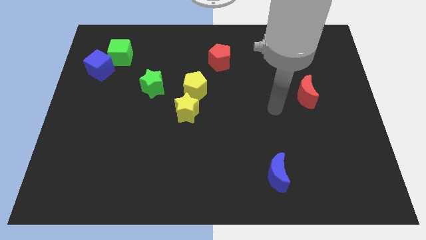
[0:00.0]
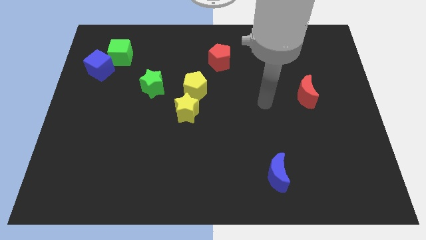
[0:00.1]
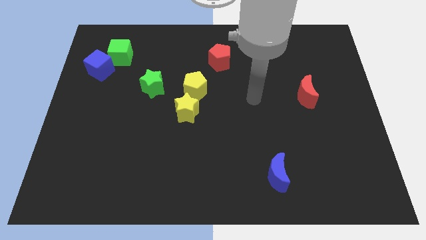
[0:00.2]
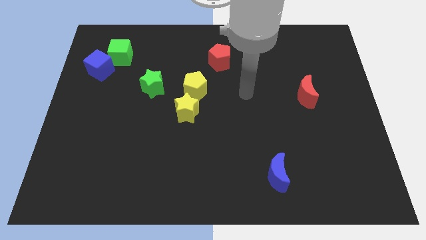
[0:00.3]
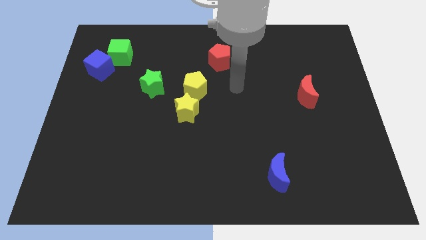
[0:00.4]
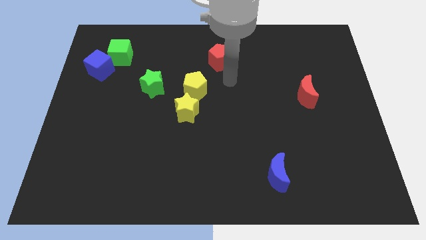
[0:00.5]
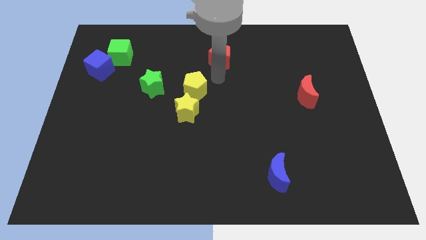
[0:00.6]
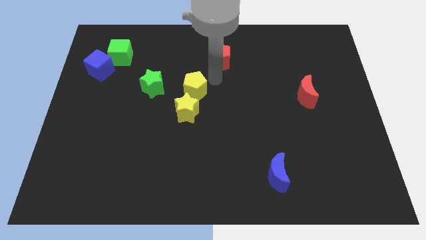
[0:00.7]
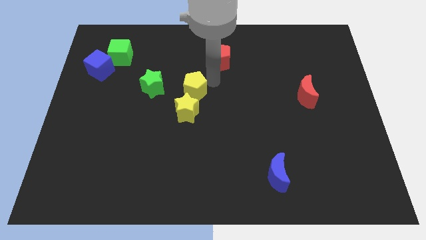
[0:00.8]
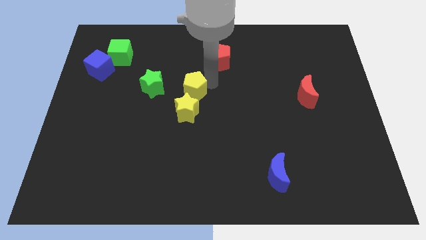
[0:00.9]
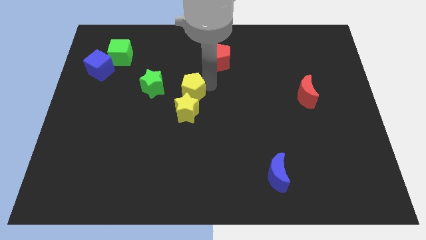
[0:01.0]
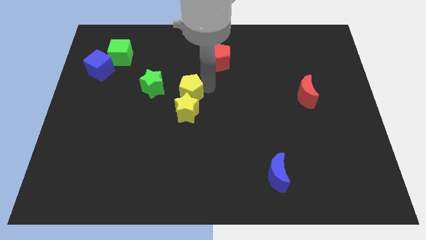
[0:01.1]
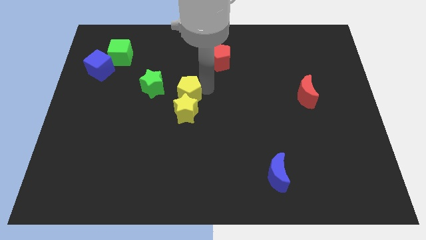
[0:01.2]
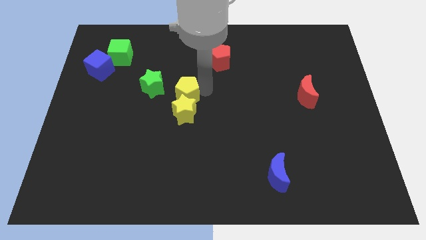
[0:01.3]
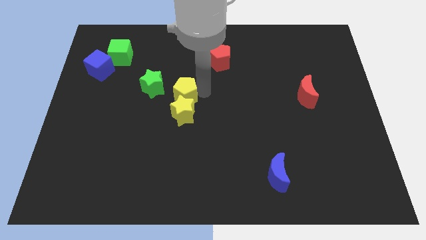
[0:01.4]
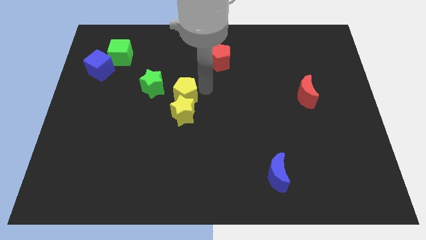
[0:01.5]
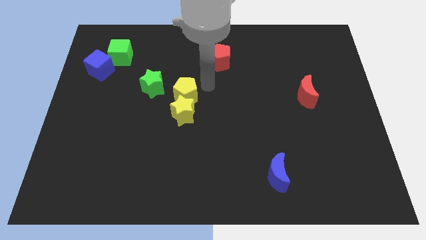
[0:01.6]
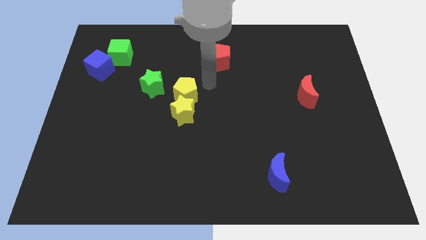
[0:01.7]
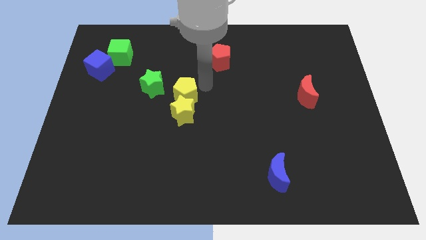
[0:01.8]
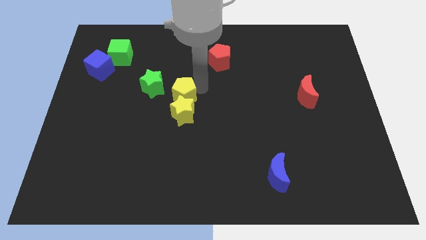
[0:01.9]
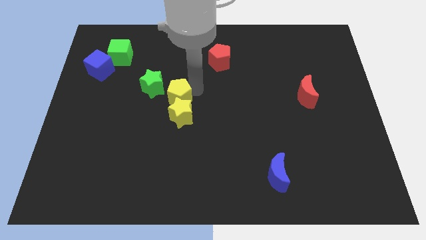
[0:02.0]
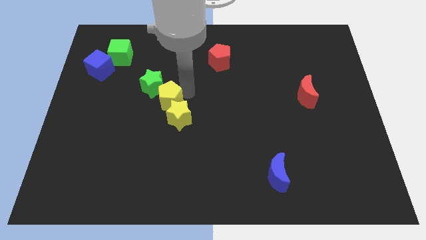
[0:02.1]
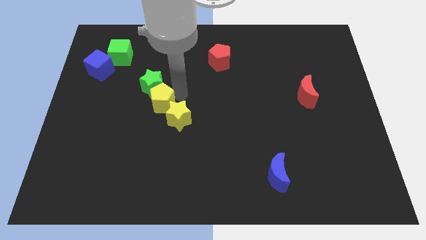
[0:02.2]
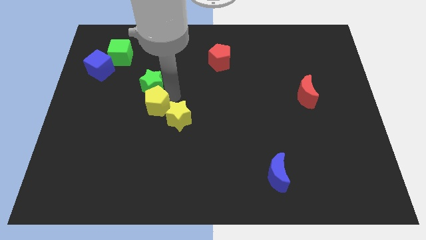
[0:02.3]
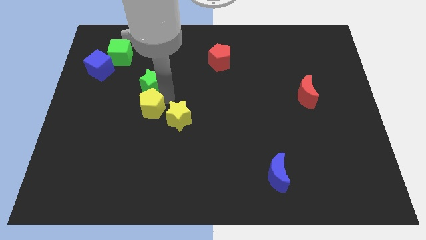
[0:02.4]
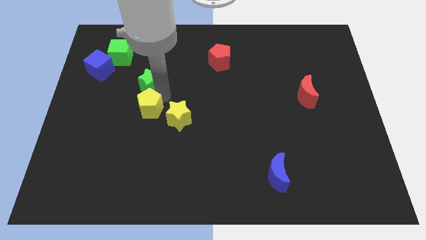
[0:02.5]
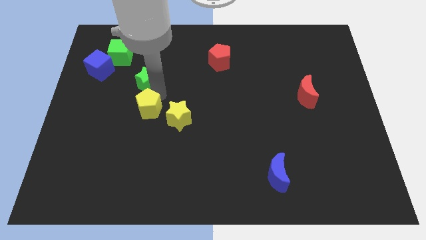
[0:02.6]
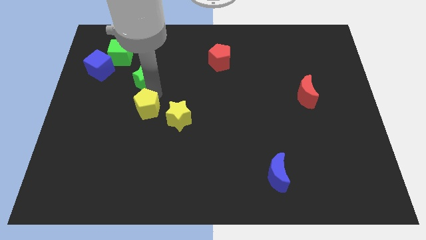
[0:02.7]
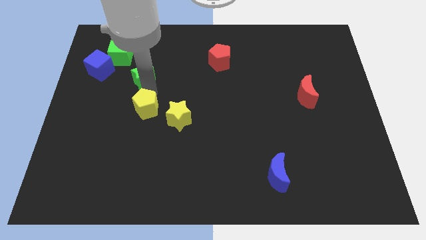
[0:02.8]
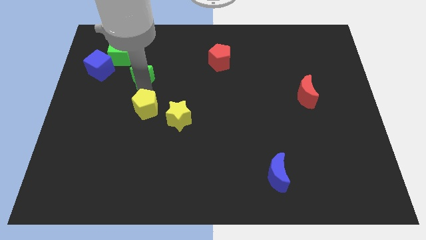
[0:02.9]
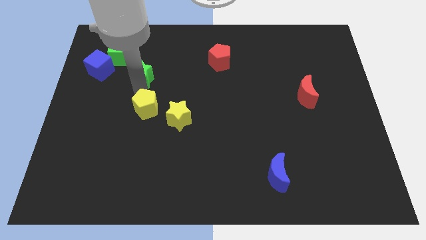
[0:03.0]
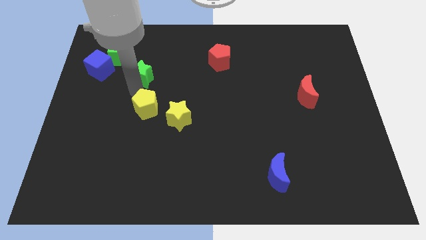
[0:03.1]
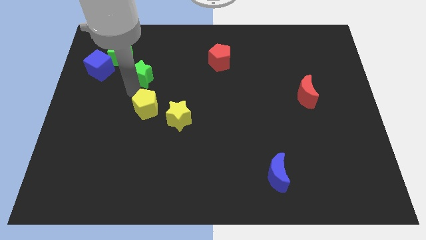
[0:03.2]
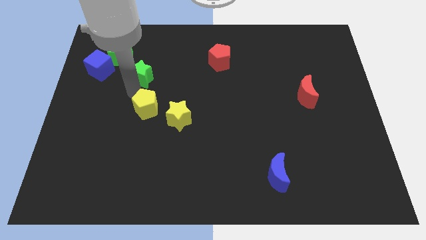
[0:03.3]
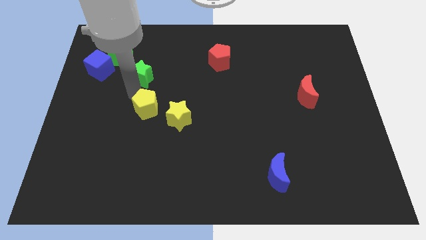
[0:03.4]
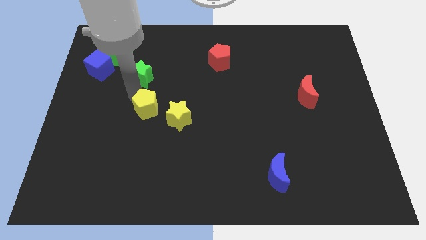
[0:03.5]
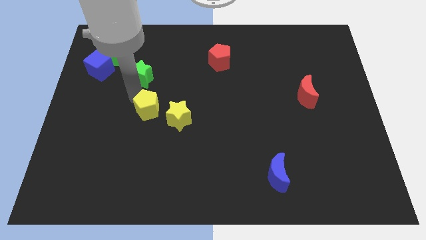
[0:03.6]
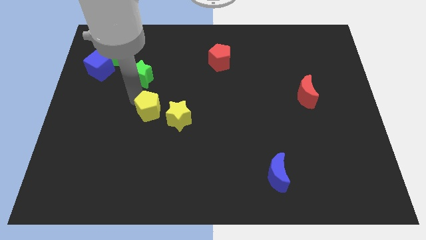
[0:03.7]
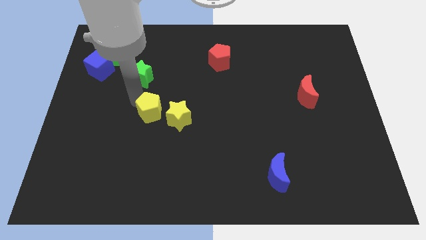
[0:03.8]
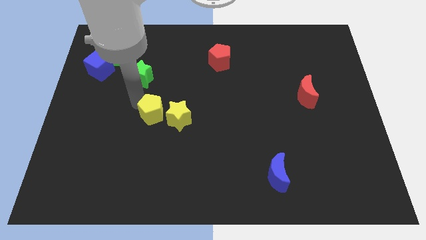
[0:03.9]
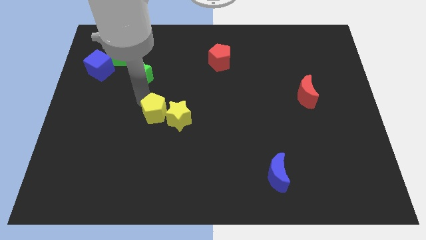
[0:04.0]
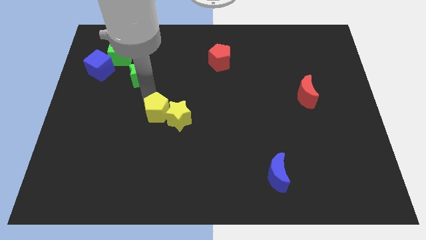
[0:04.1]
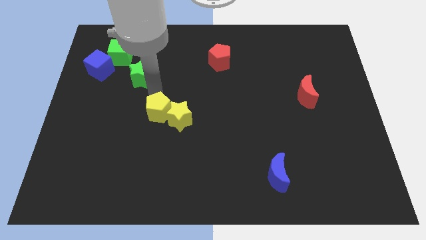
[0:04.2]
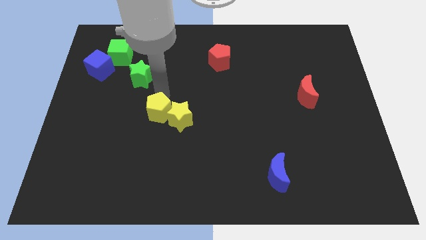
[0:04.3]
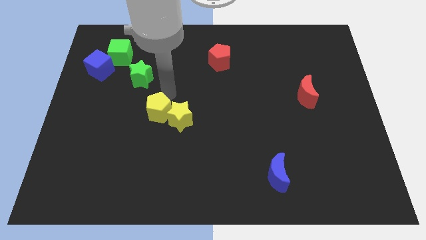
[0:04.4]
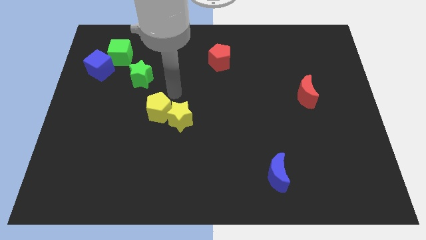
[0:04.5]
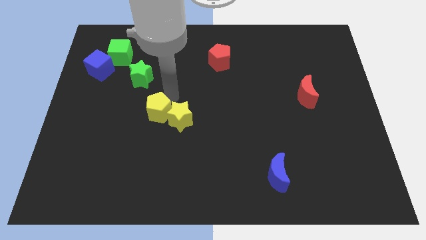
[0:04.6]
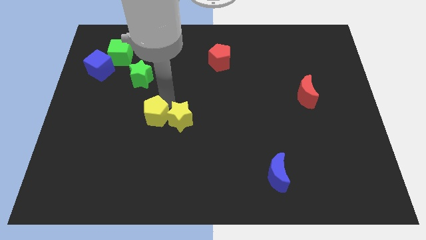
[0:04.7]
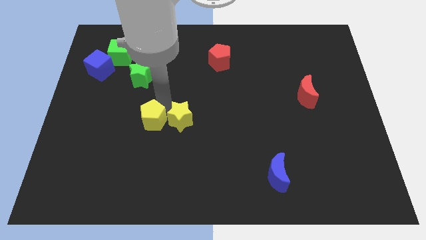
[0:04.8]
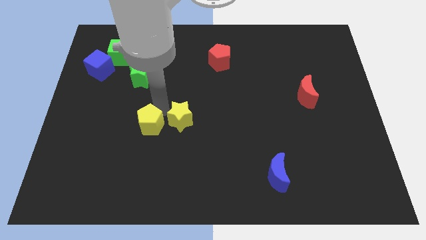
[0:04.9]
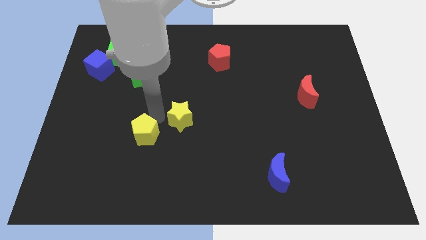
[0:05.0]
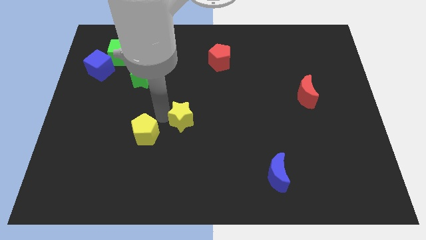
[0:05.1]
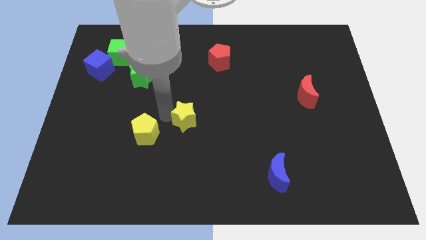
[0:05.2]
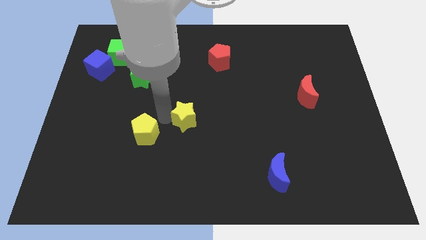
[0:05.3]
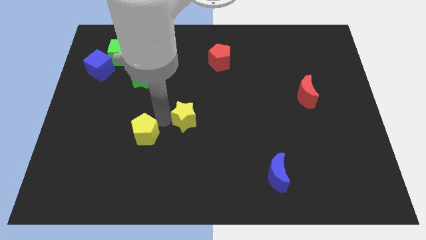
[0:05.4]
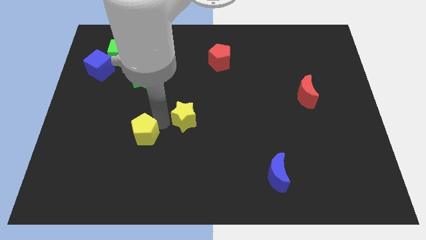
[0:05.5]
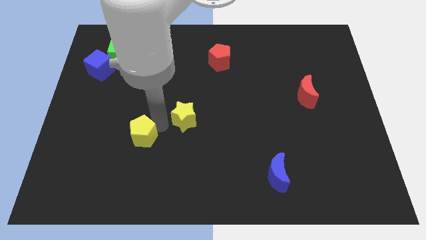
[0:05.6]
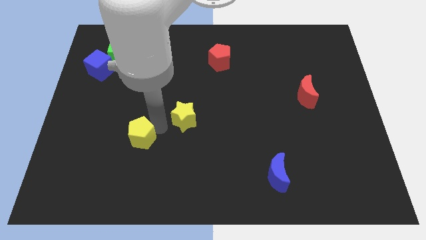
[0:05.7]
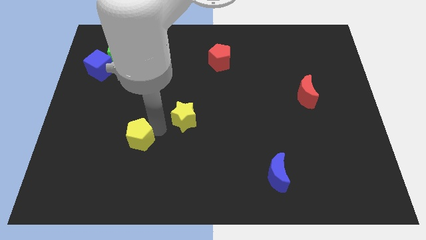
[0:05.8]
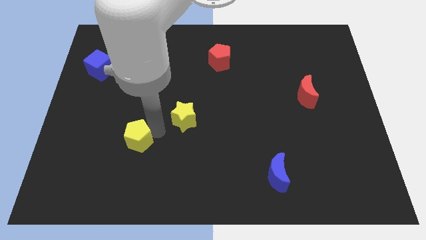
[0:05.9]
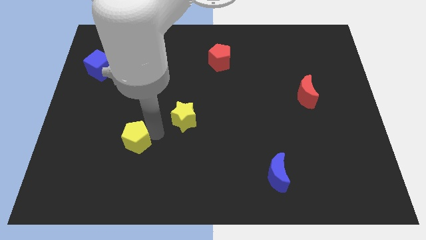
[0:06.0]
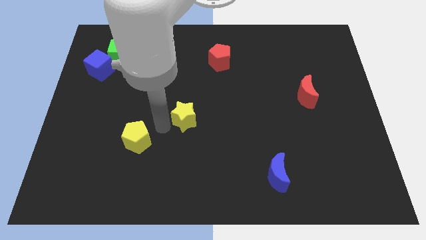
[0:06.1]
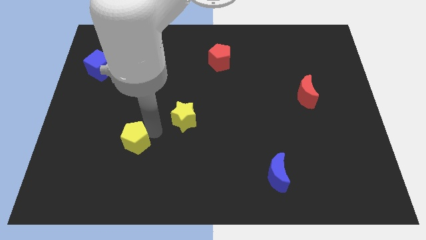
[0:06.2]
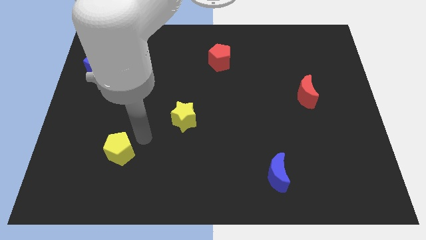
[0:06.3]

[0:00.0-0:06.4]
push the yellow pentagon down and then left

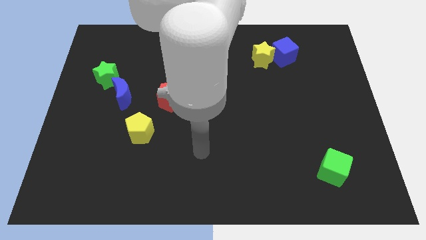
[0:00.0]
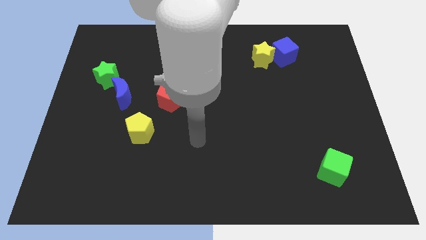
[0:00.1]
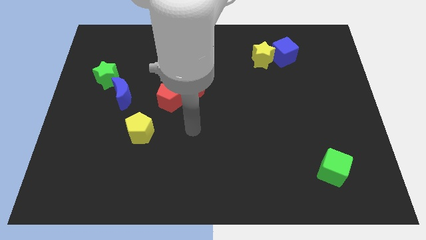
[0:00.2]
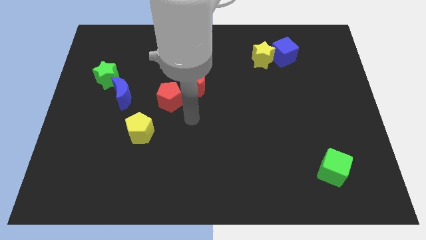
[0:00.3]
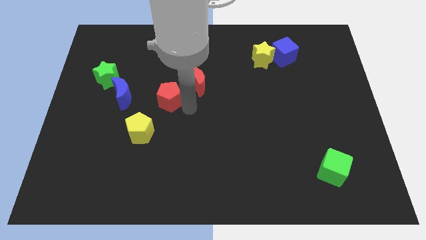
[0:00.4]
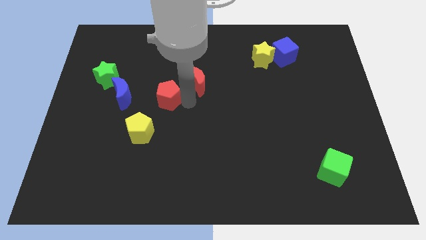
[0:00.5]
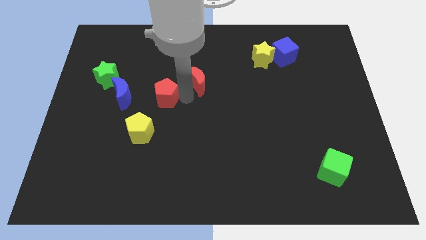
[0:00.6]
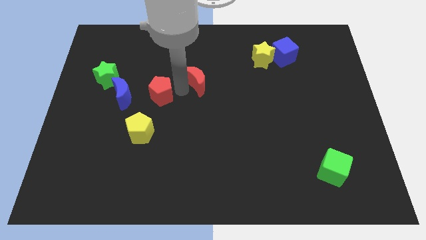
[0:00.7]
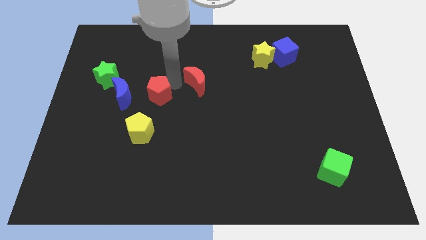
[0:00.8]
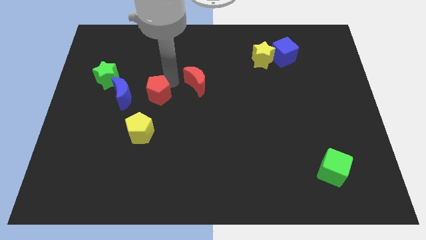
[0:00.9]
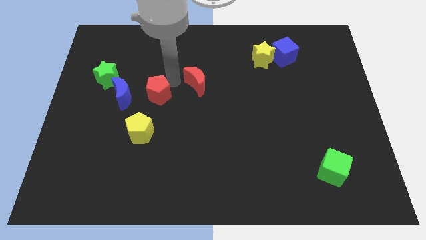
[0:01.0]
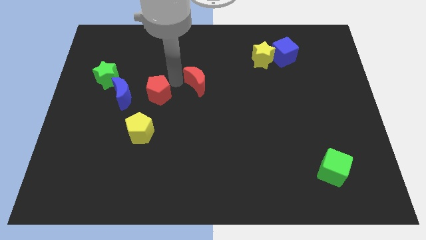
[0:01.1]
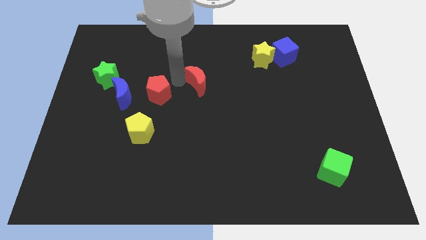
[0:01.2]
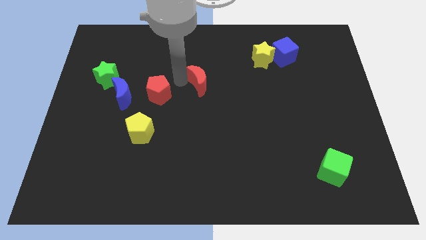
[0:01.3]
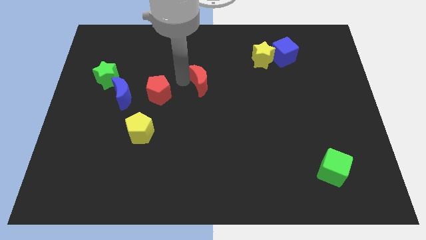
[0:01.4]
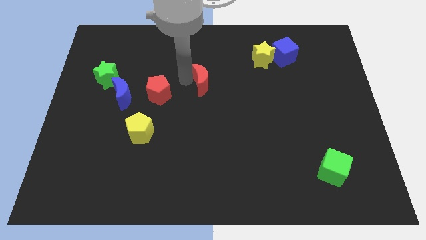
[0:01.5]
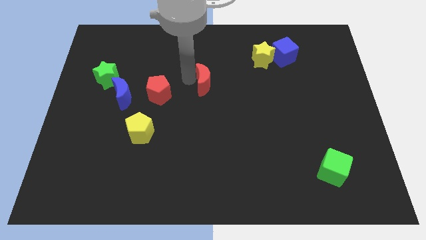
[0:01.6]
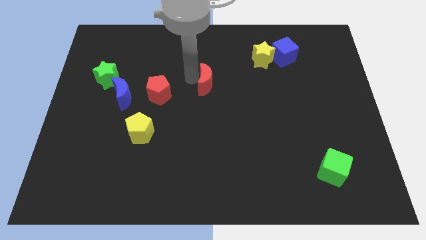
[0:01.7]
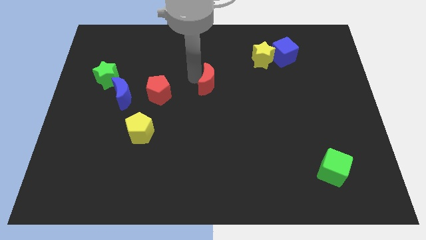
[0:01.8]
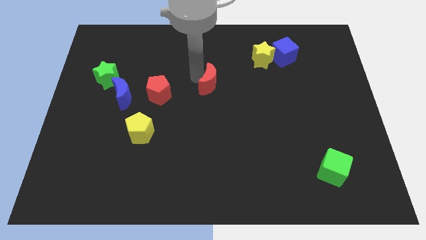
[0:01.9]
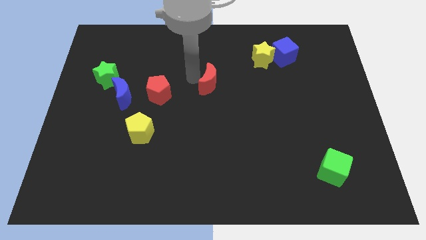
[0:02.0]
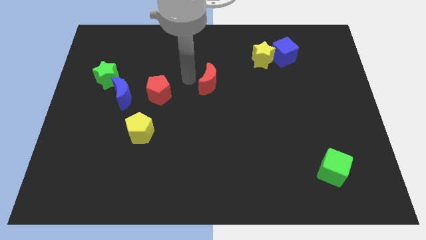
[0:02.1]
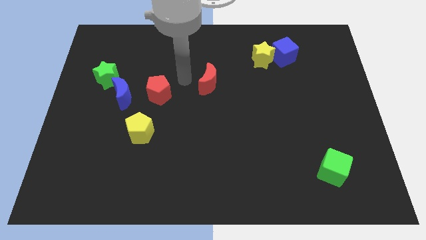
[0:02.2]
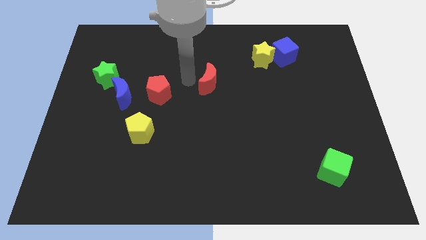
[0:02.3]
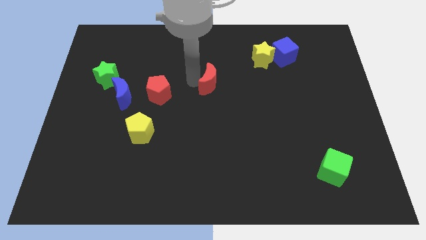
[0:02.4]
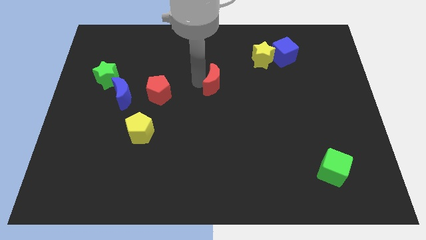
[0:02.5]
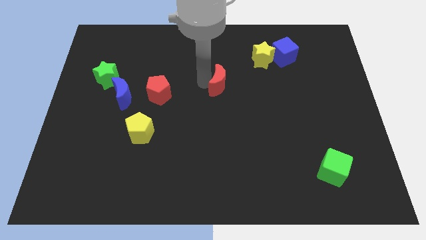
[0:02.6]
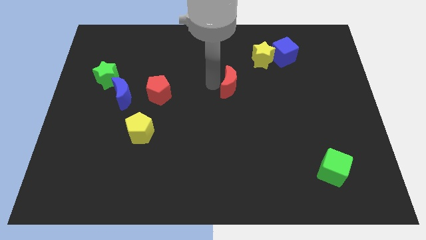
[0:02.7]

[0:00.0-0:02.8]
slightly move the red moon right
